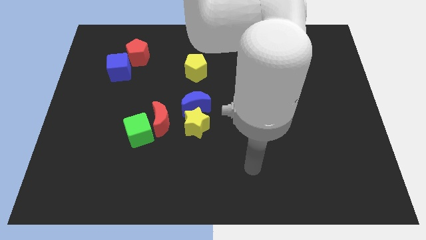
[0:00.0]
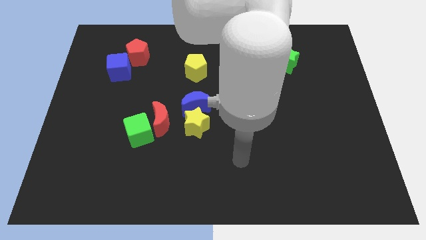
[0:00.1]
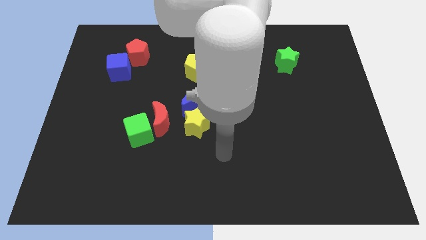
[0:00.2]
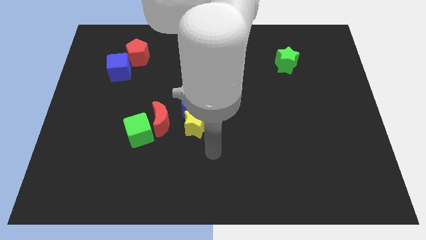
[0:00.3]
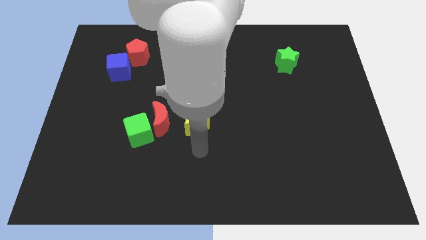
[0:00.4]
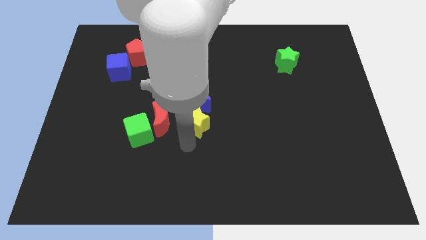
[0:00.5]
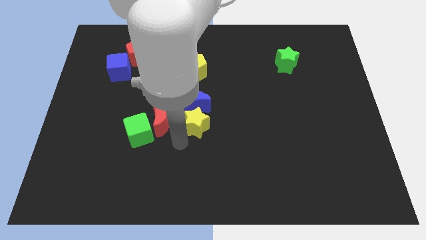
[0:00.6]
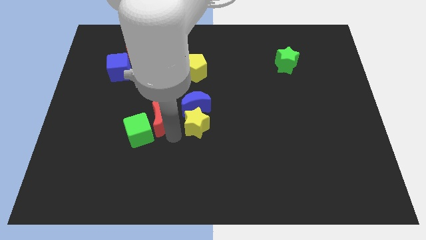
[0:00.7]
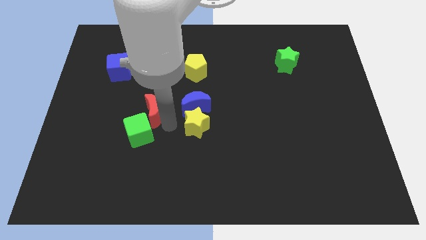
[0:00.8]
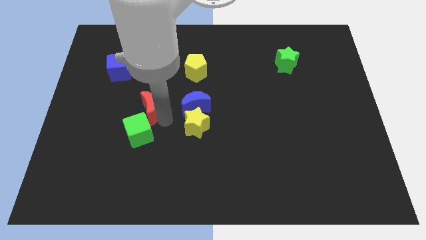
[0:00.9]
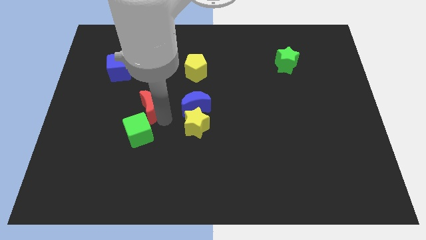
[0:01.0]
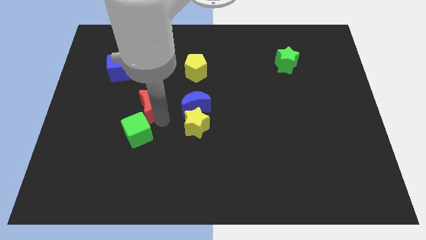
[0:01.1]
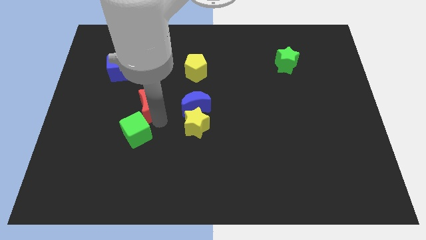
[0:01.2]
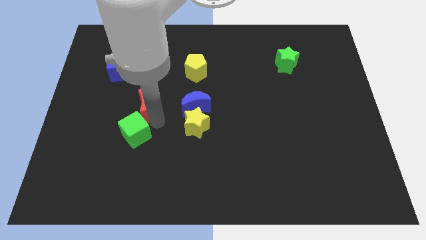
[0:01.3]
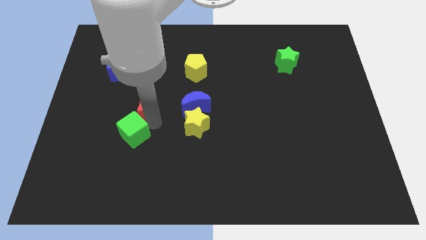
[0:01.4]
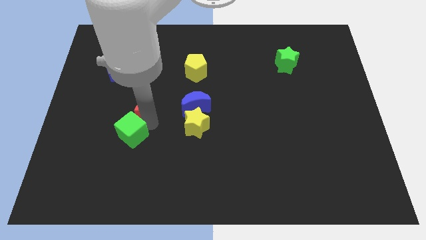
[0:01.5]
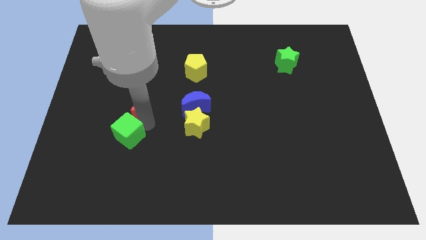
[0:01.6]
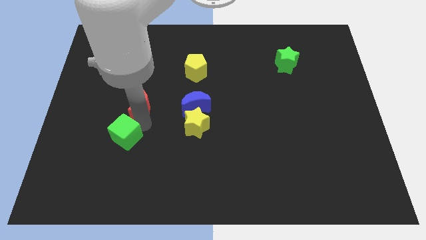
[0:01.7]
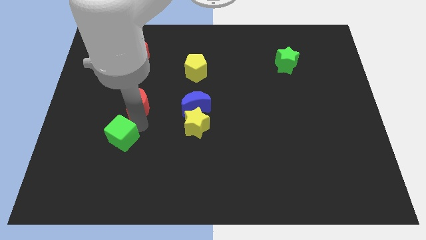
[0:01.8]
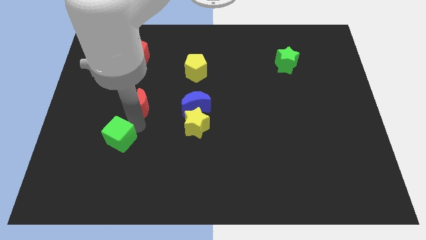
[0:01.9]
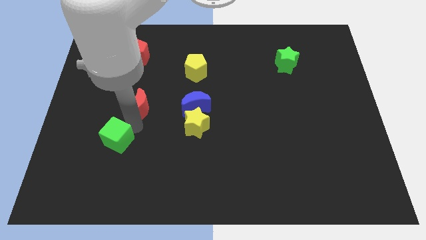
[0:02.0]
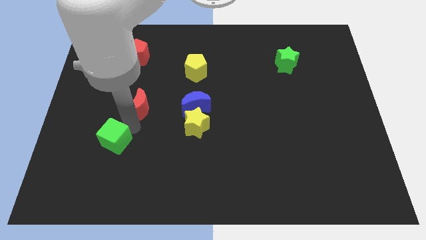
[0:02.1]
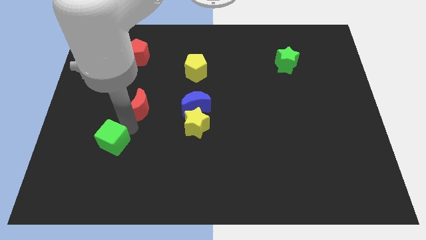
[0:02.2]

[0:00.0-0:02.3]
pull the green cube apart from the red moon

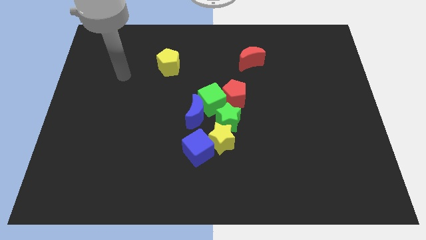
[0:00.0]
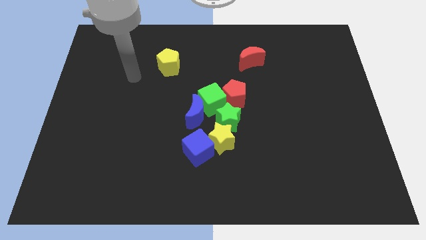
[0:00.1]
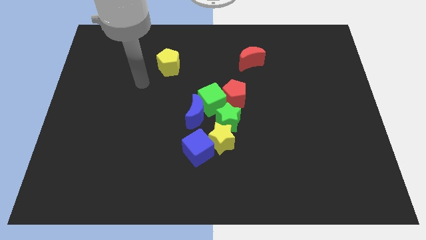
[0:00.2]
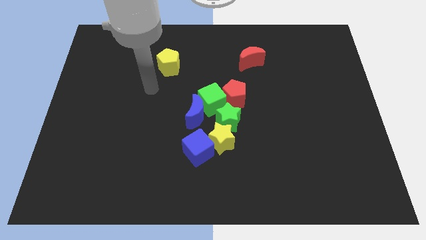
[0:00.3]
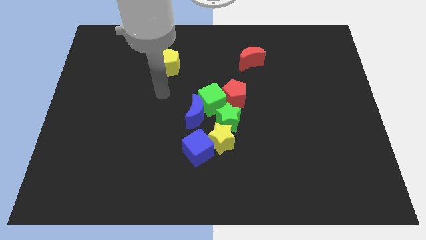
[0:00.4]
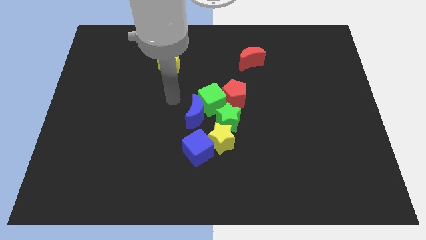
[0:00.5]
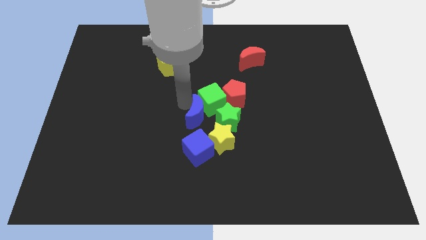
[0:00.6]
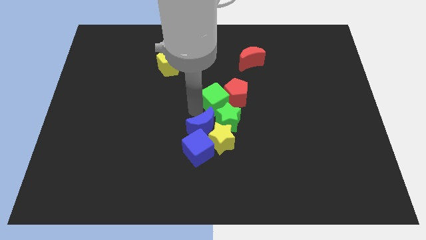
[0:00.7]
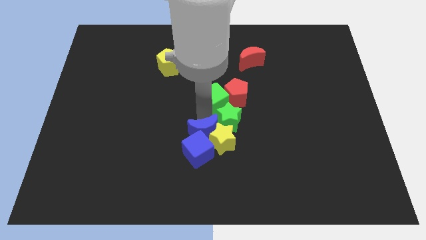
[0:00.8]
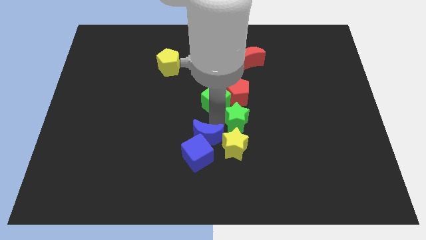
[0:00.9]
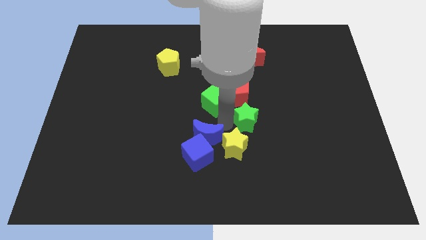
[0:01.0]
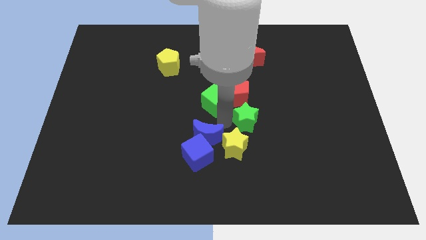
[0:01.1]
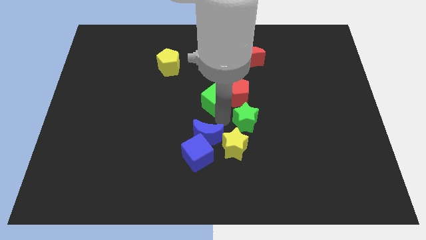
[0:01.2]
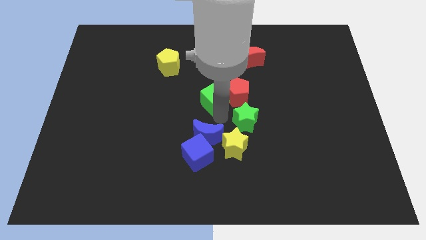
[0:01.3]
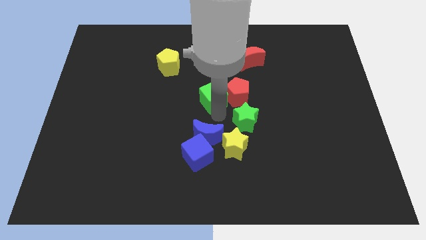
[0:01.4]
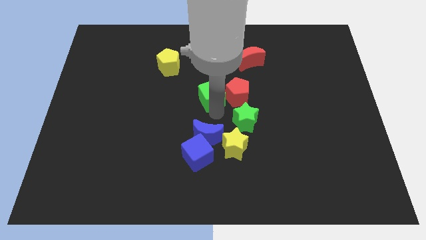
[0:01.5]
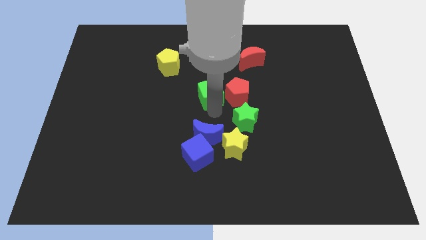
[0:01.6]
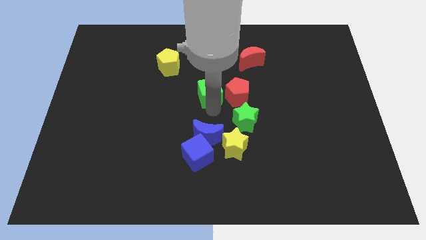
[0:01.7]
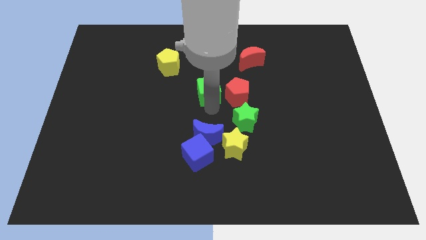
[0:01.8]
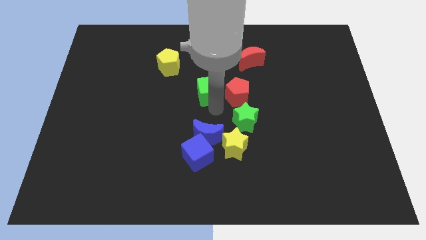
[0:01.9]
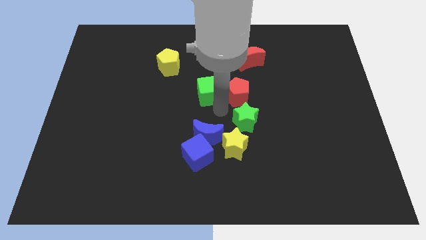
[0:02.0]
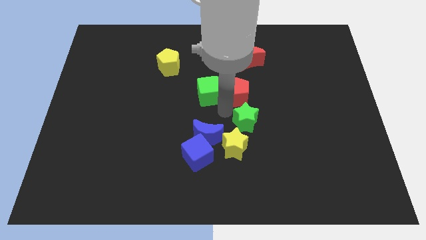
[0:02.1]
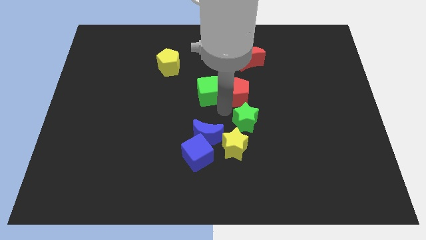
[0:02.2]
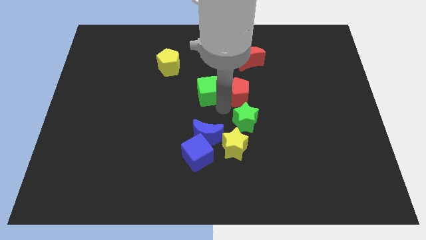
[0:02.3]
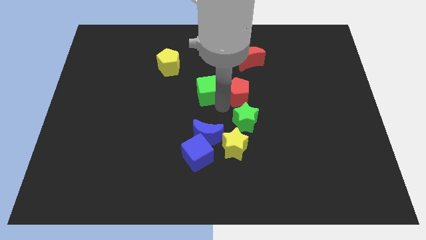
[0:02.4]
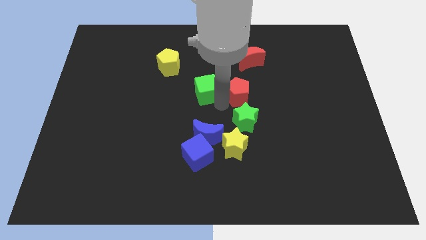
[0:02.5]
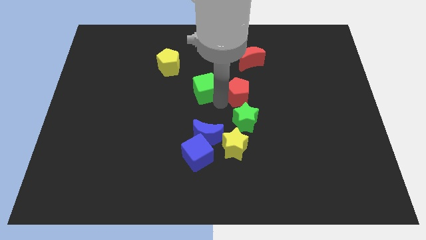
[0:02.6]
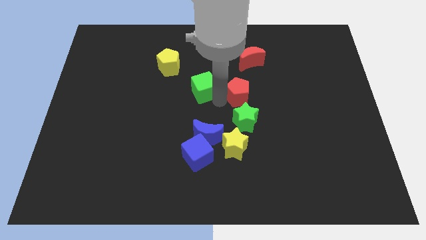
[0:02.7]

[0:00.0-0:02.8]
move the green cube away from the blue moon, red pentagon, and green star

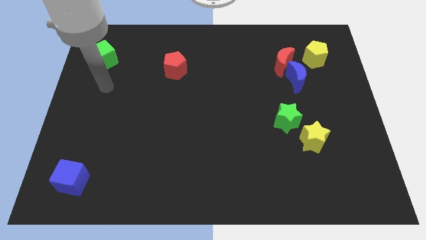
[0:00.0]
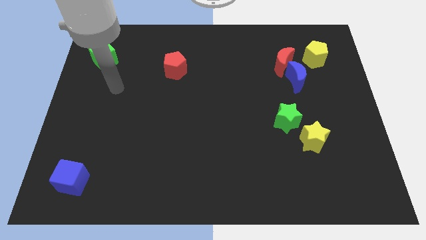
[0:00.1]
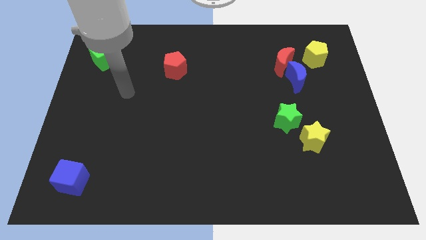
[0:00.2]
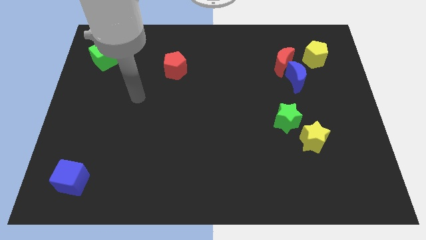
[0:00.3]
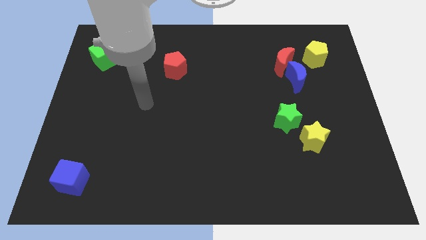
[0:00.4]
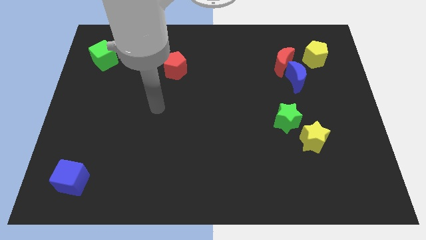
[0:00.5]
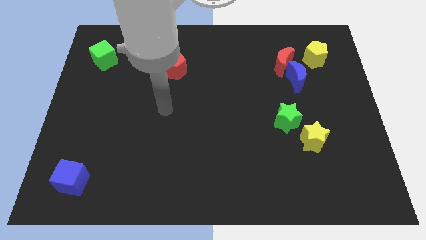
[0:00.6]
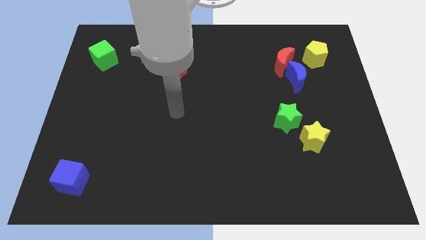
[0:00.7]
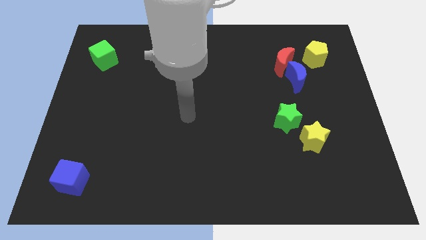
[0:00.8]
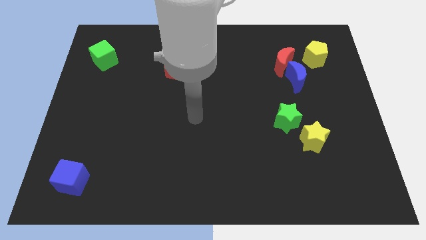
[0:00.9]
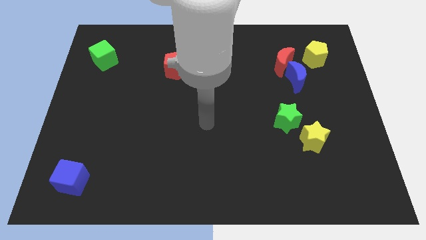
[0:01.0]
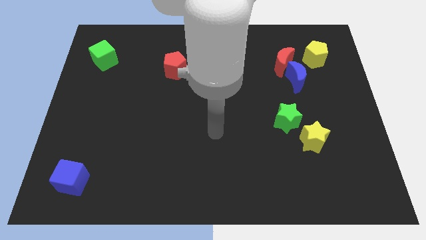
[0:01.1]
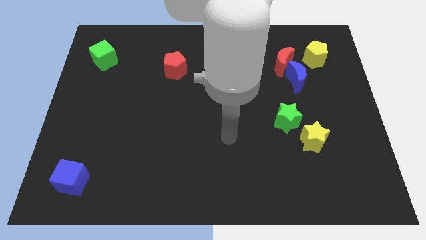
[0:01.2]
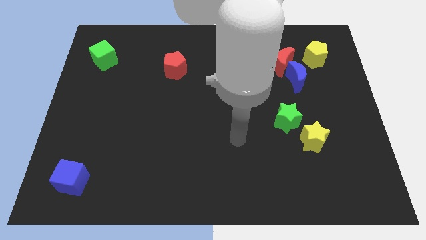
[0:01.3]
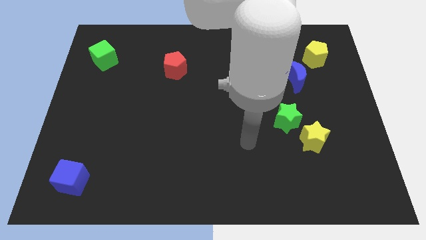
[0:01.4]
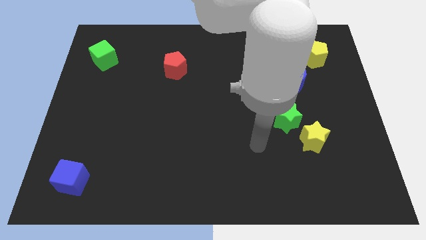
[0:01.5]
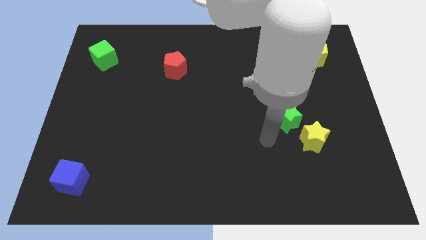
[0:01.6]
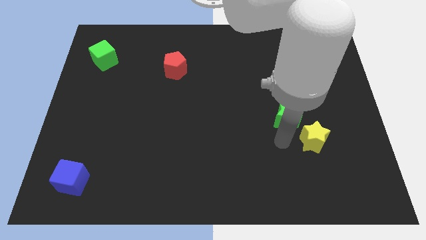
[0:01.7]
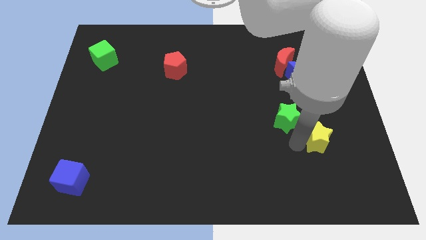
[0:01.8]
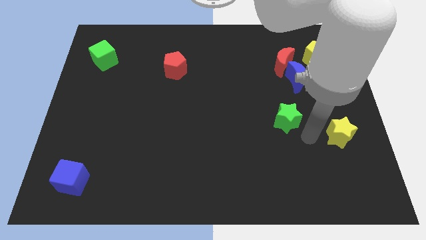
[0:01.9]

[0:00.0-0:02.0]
pull the green star apart from the yellow star

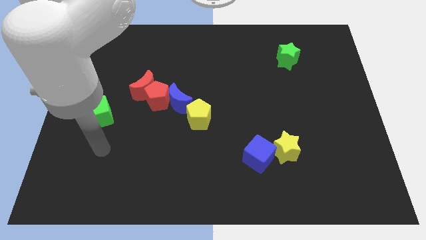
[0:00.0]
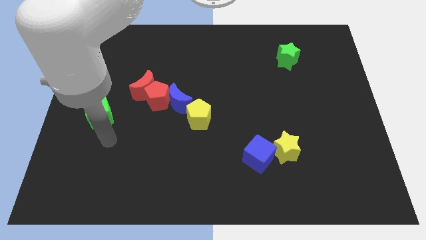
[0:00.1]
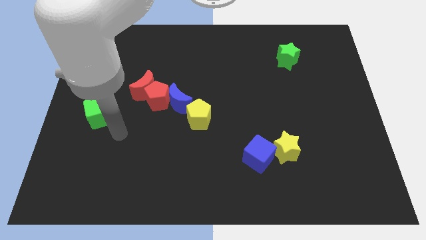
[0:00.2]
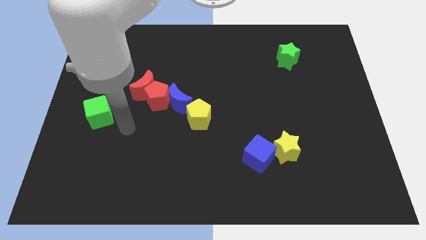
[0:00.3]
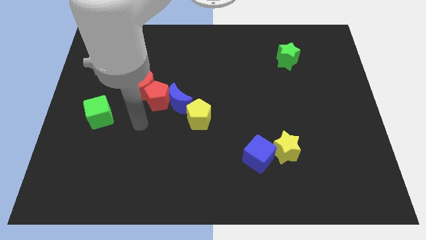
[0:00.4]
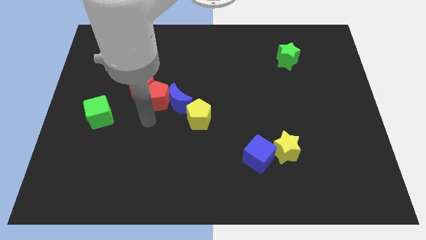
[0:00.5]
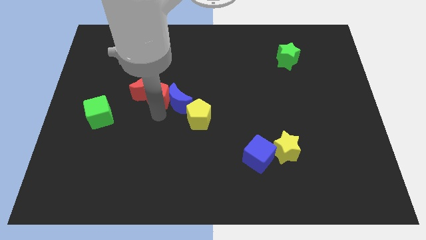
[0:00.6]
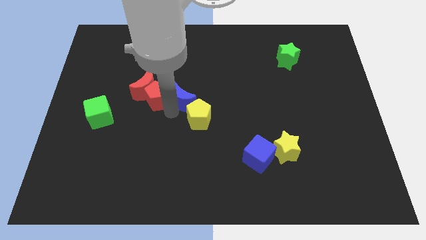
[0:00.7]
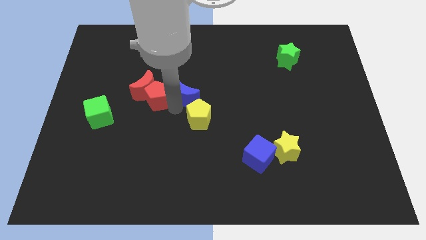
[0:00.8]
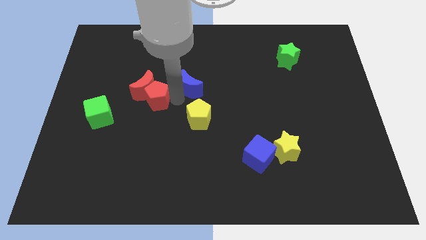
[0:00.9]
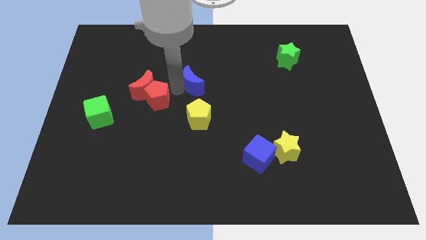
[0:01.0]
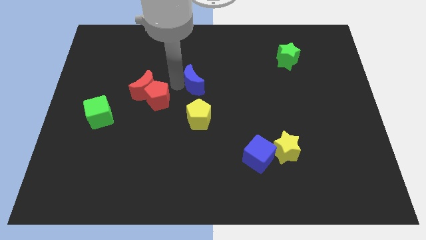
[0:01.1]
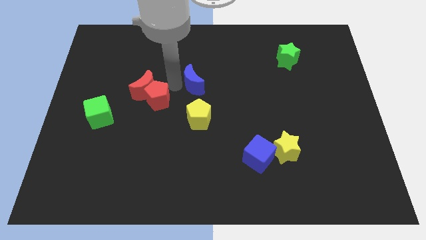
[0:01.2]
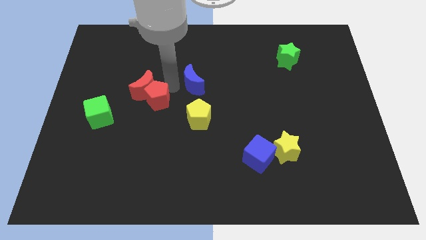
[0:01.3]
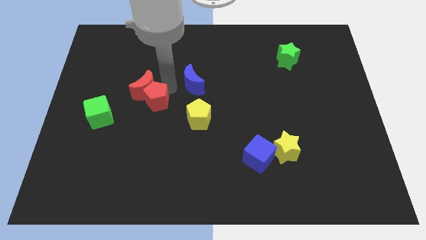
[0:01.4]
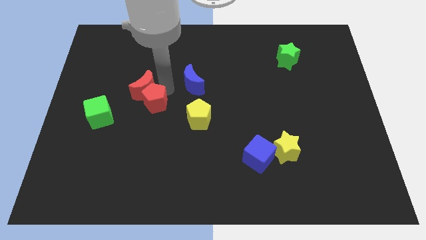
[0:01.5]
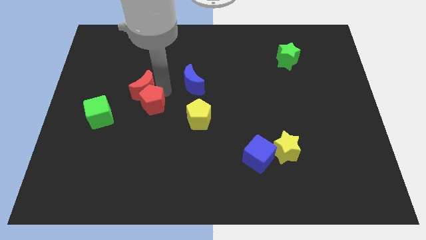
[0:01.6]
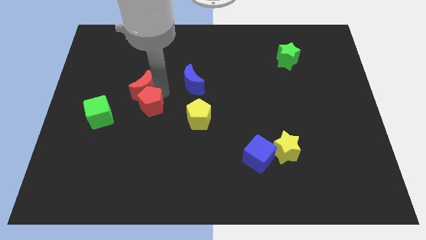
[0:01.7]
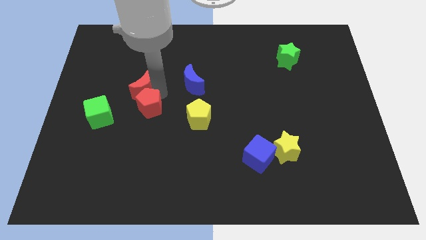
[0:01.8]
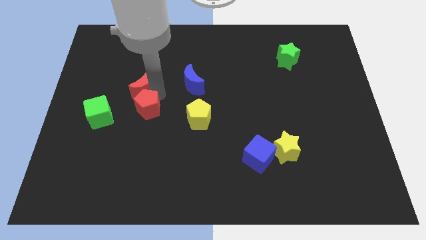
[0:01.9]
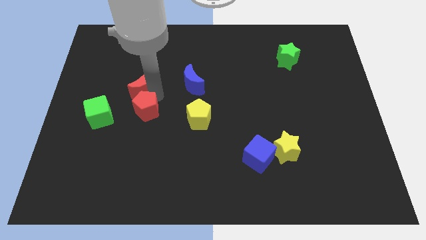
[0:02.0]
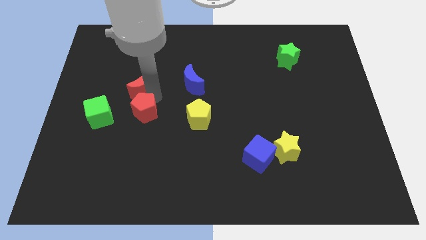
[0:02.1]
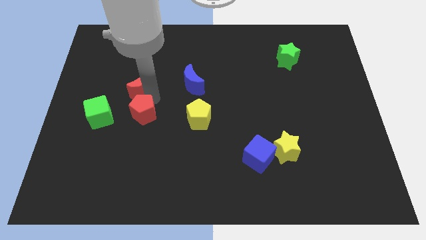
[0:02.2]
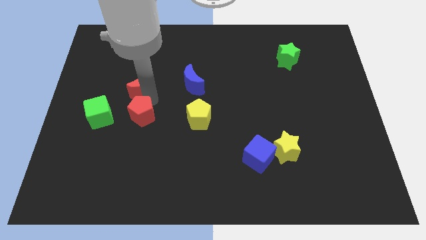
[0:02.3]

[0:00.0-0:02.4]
move the red pentagon away from the red moon and blue moon
